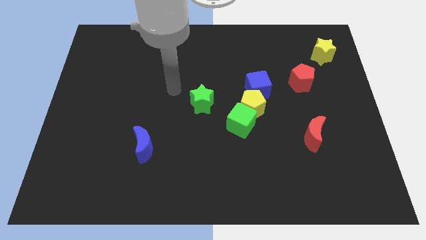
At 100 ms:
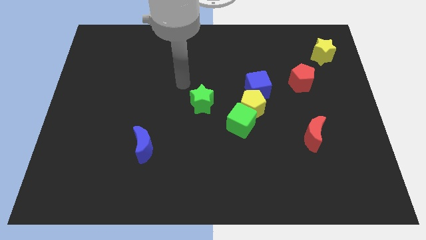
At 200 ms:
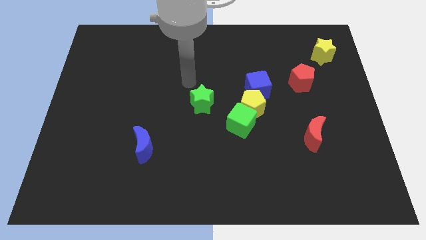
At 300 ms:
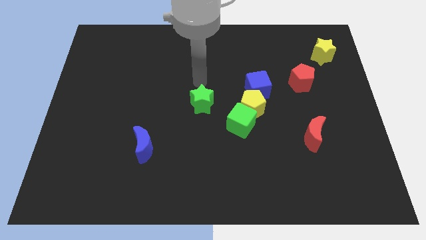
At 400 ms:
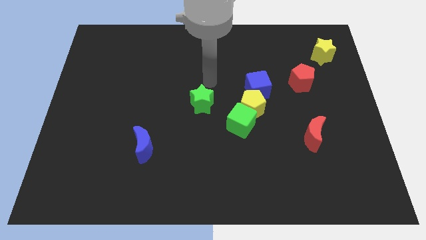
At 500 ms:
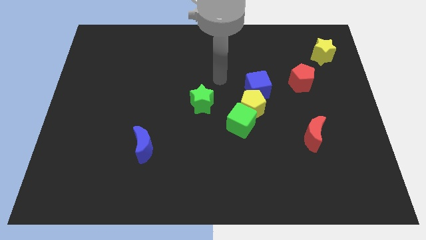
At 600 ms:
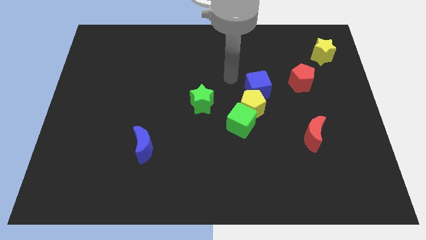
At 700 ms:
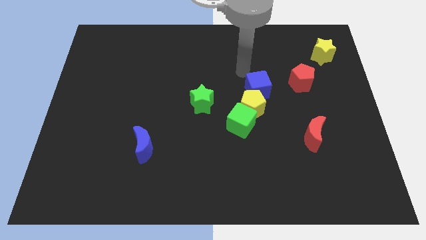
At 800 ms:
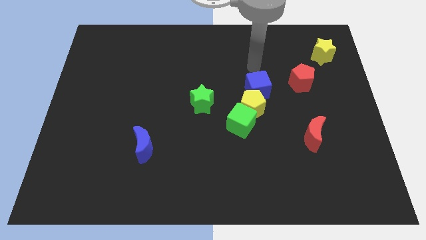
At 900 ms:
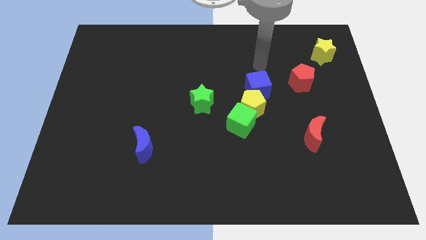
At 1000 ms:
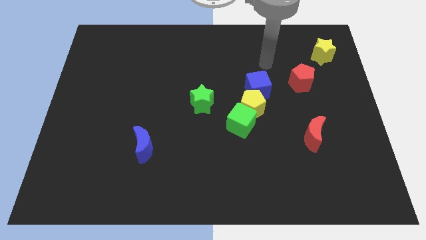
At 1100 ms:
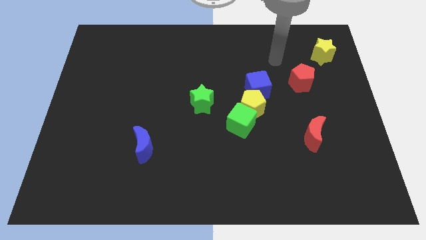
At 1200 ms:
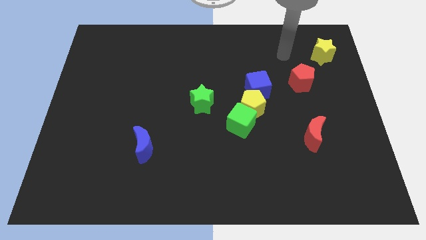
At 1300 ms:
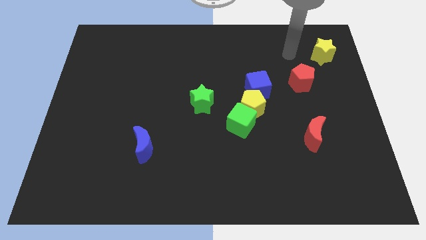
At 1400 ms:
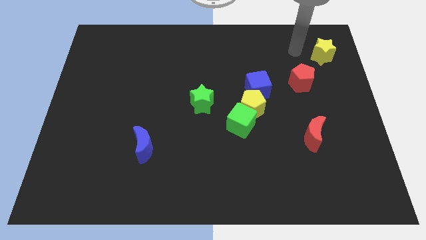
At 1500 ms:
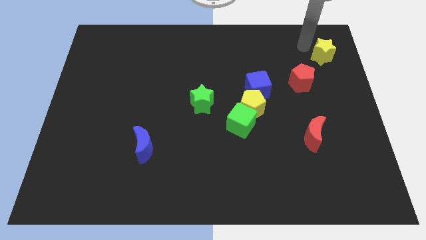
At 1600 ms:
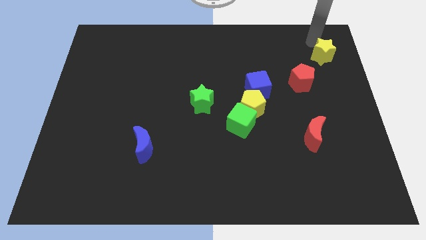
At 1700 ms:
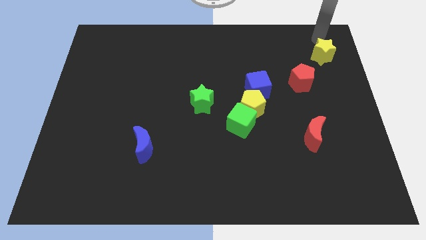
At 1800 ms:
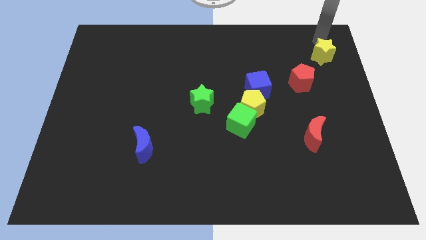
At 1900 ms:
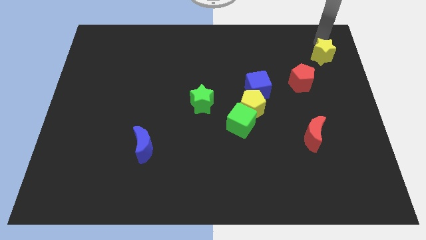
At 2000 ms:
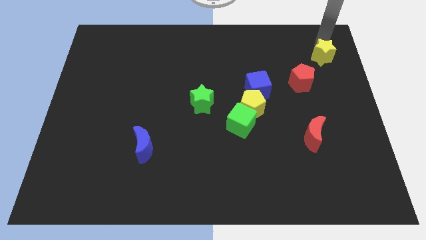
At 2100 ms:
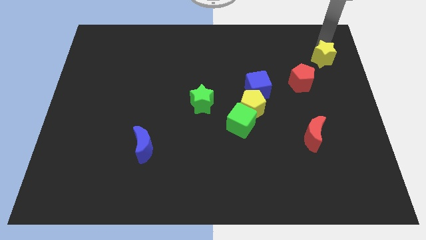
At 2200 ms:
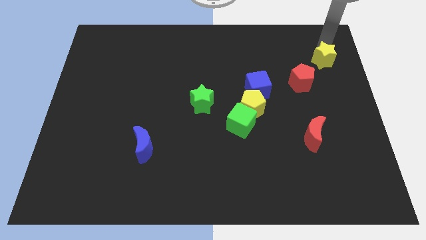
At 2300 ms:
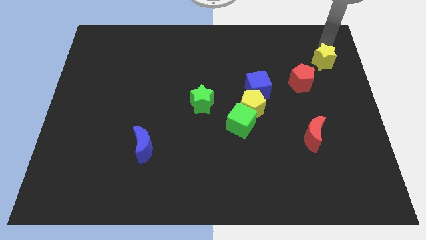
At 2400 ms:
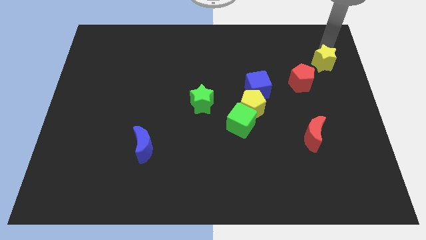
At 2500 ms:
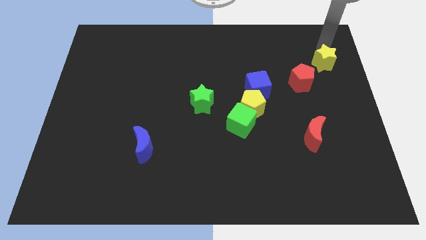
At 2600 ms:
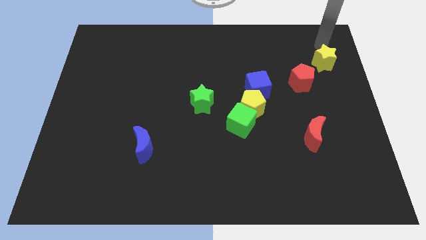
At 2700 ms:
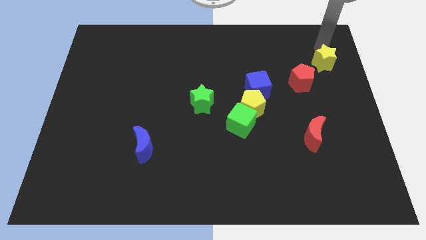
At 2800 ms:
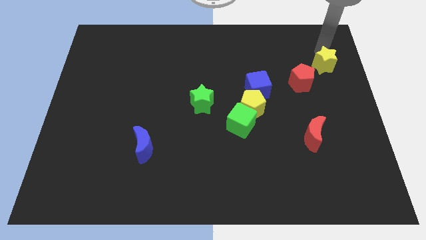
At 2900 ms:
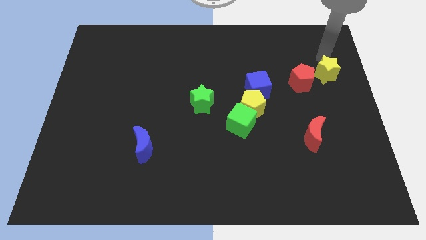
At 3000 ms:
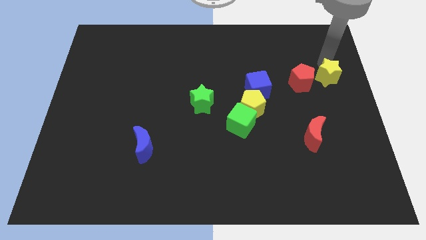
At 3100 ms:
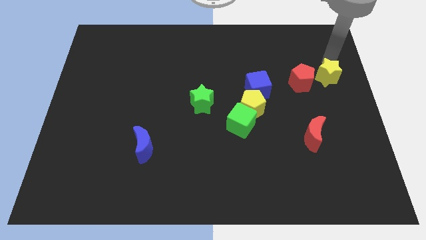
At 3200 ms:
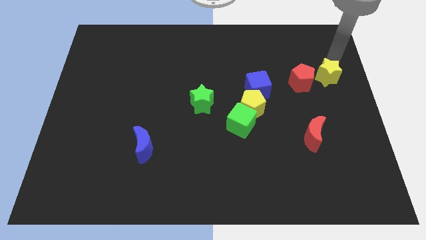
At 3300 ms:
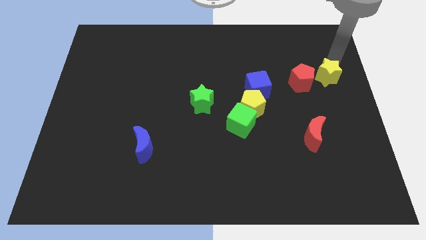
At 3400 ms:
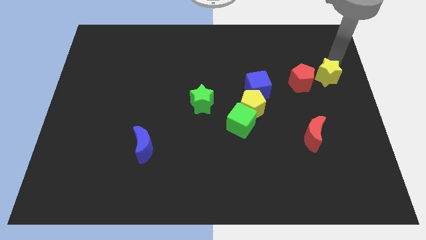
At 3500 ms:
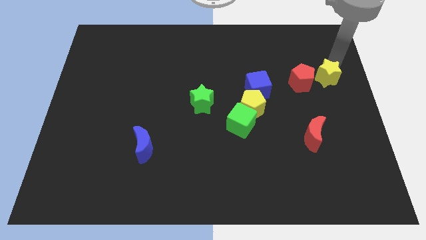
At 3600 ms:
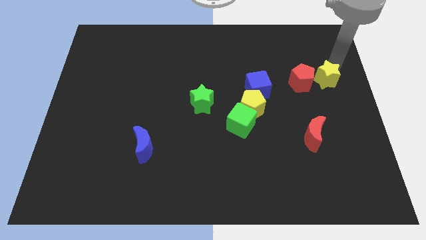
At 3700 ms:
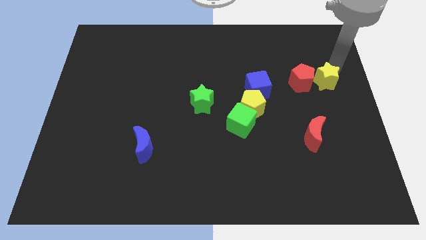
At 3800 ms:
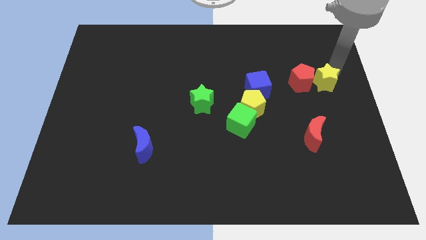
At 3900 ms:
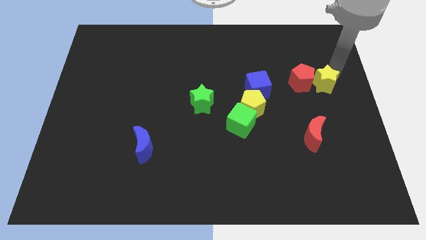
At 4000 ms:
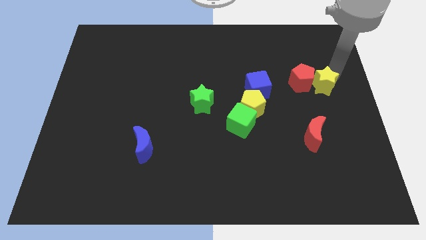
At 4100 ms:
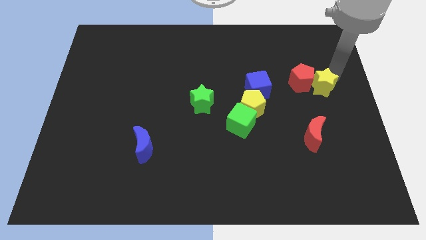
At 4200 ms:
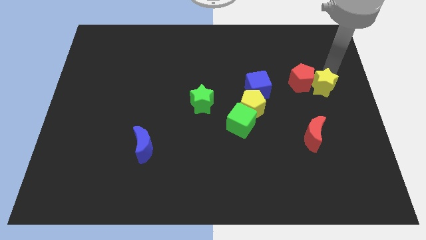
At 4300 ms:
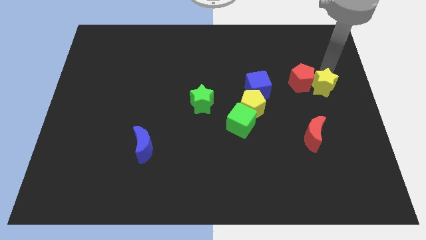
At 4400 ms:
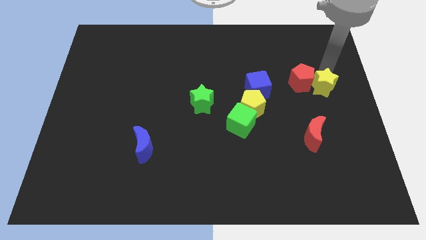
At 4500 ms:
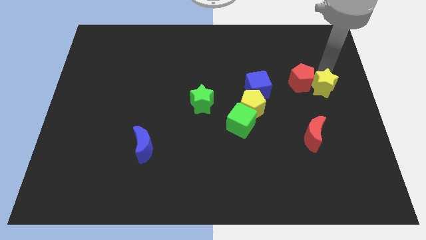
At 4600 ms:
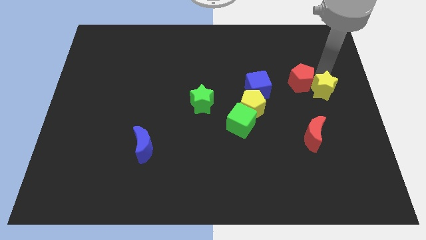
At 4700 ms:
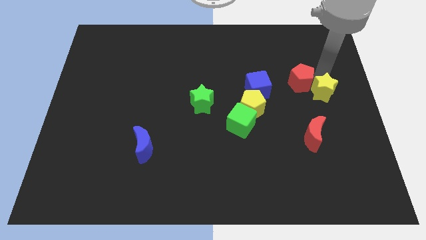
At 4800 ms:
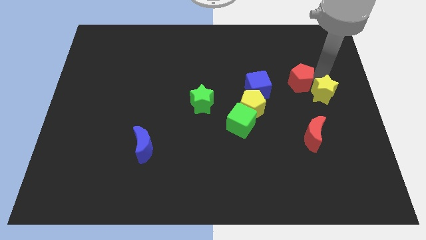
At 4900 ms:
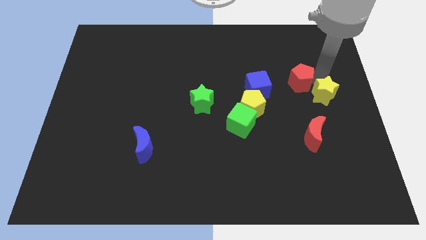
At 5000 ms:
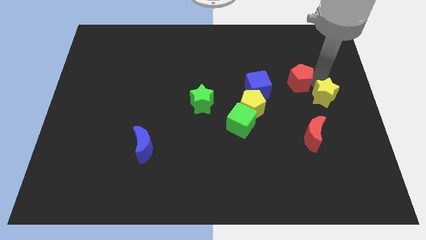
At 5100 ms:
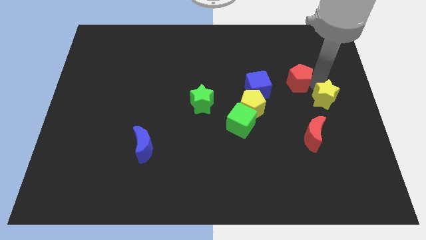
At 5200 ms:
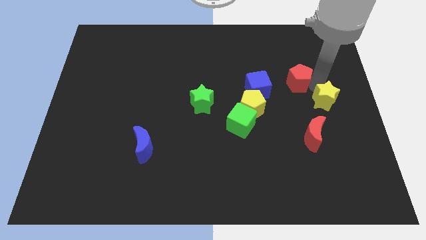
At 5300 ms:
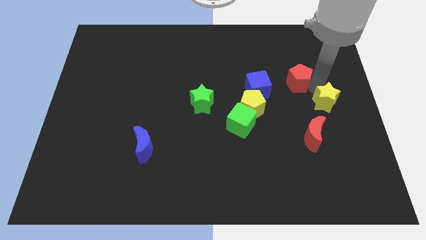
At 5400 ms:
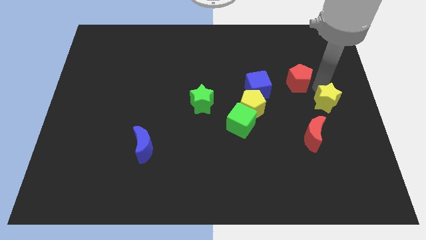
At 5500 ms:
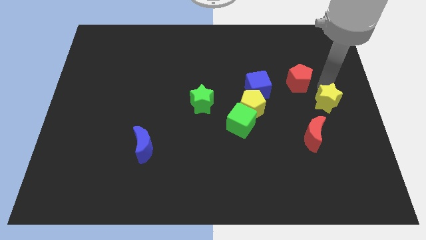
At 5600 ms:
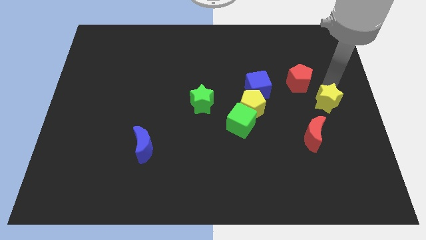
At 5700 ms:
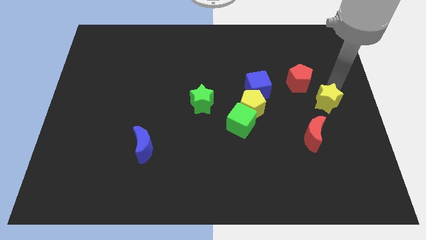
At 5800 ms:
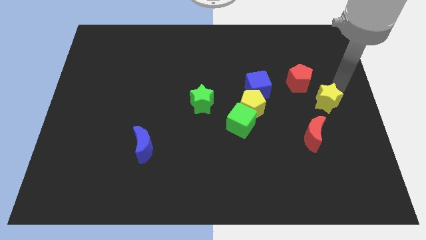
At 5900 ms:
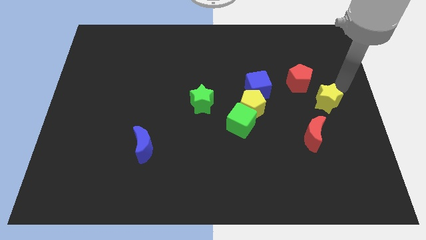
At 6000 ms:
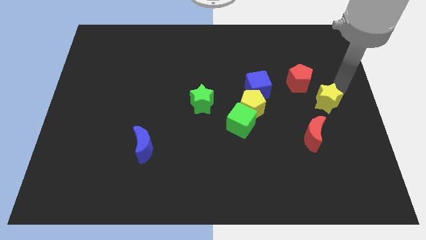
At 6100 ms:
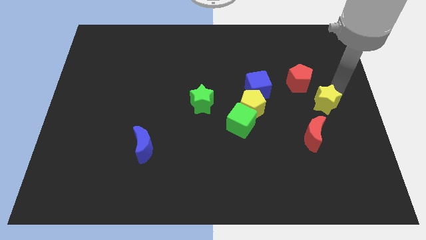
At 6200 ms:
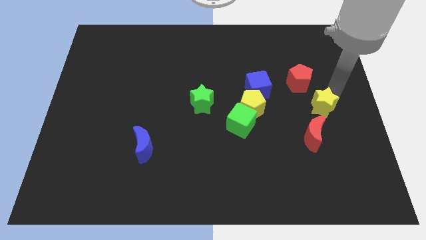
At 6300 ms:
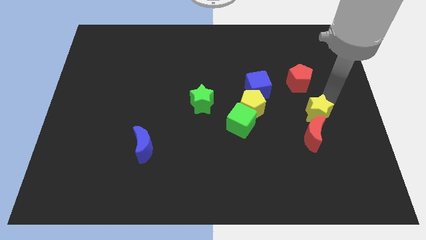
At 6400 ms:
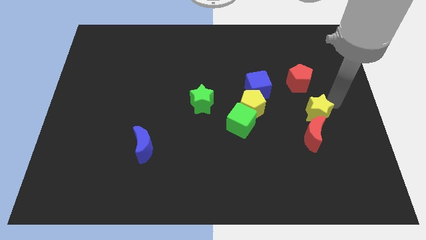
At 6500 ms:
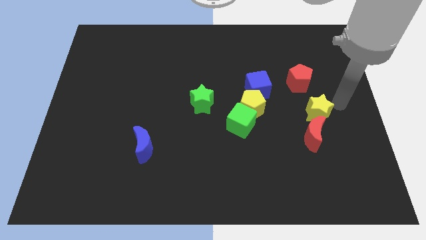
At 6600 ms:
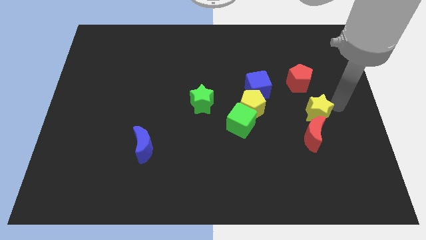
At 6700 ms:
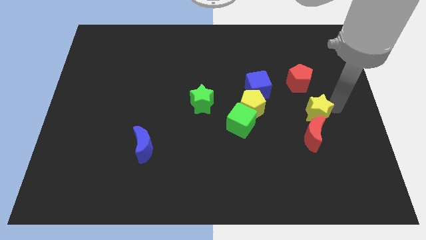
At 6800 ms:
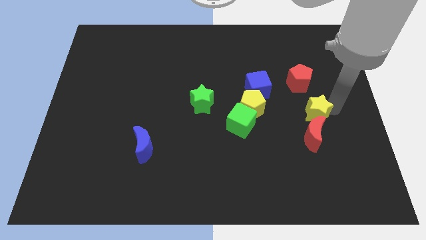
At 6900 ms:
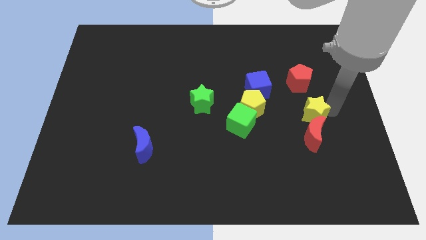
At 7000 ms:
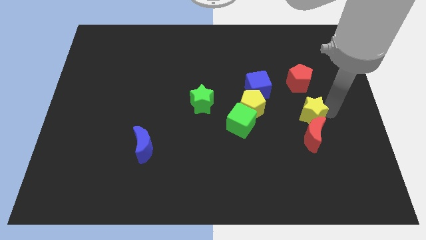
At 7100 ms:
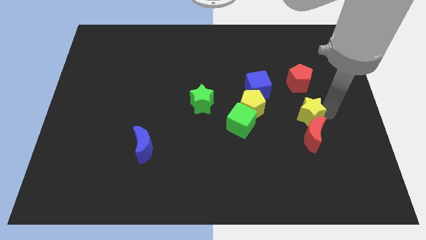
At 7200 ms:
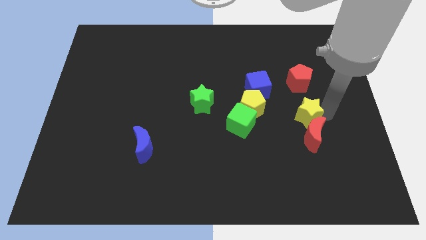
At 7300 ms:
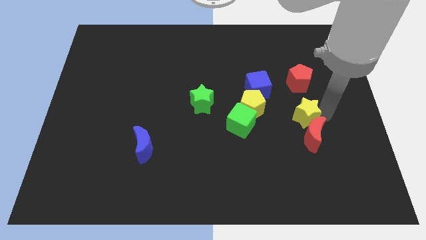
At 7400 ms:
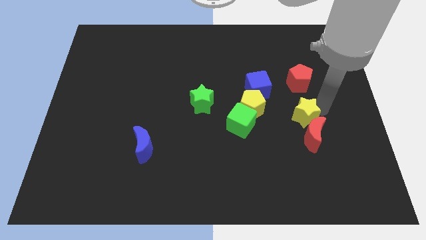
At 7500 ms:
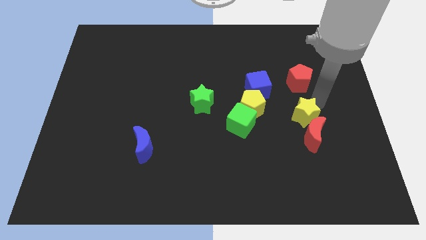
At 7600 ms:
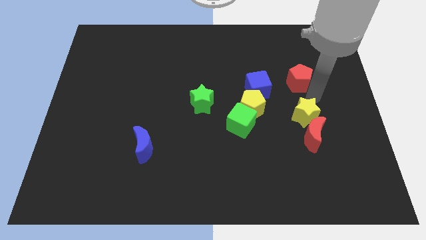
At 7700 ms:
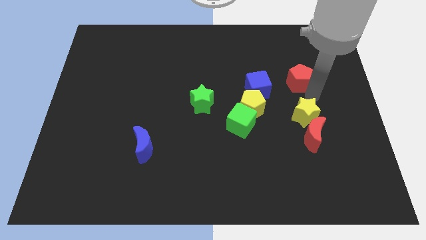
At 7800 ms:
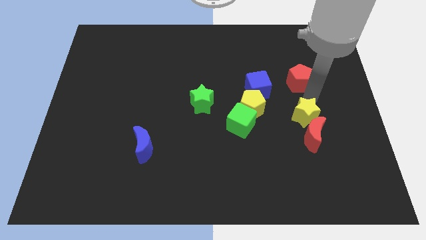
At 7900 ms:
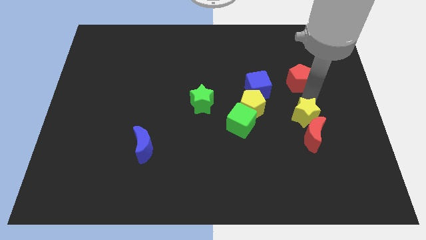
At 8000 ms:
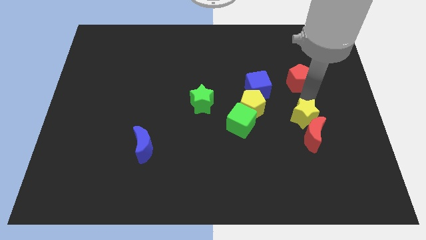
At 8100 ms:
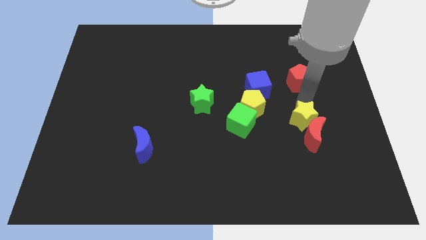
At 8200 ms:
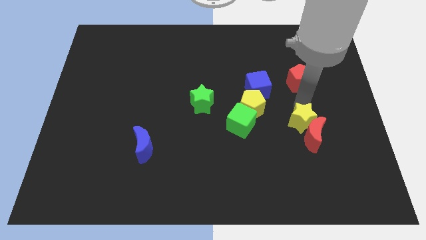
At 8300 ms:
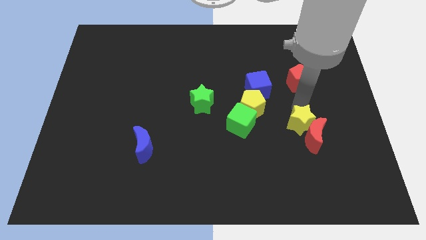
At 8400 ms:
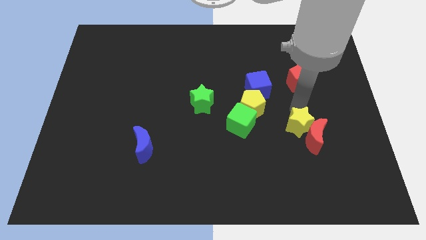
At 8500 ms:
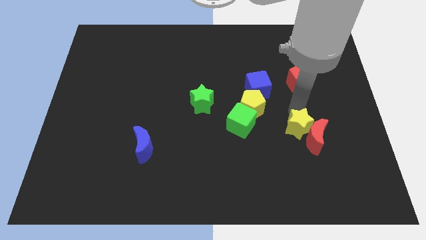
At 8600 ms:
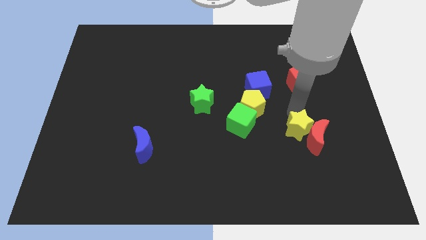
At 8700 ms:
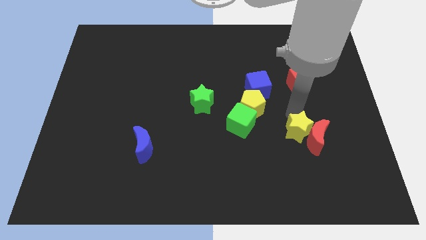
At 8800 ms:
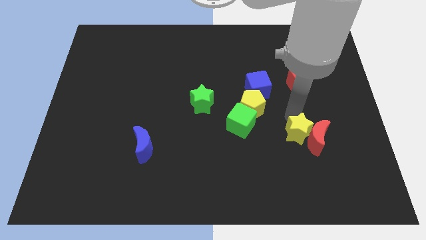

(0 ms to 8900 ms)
push the yellow star to the bottom left of the red moon
